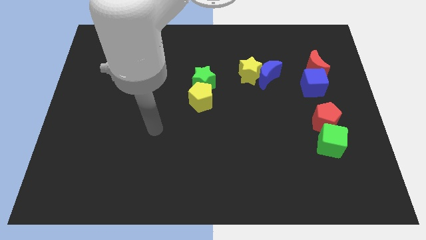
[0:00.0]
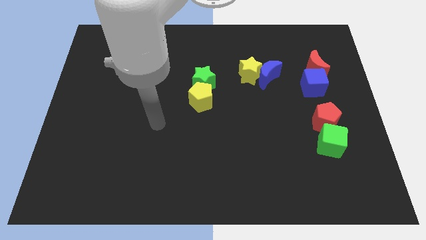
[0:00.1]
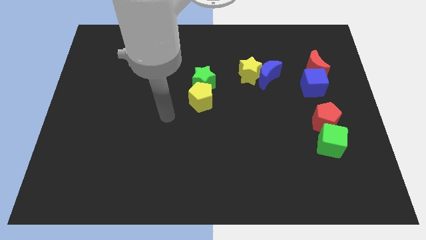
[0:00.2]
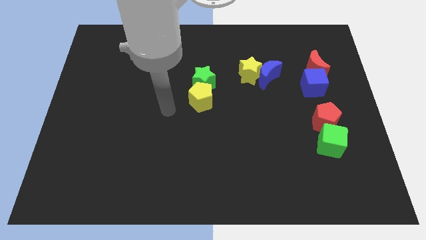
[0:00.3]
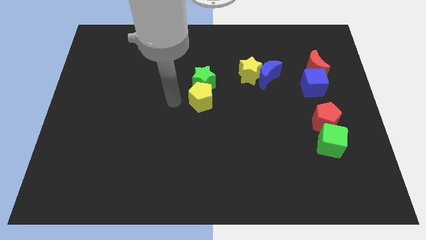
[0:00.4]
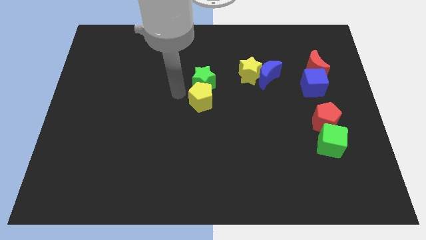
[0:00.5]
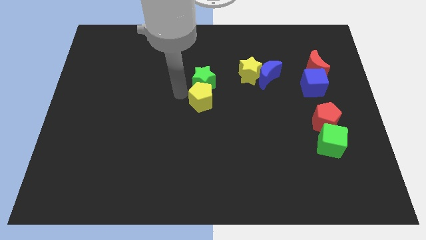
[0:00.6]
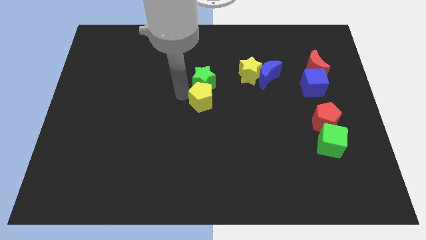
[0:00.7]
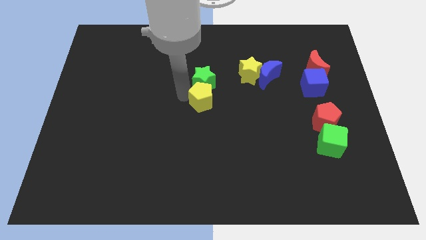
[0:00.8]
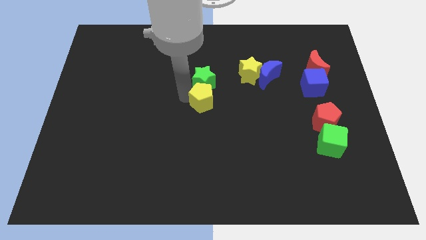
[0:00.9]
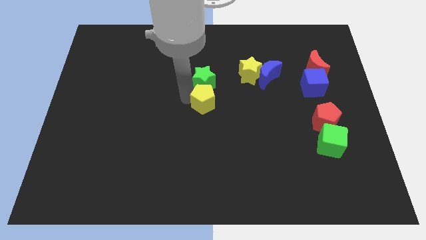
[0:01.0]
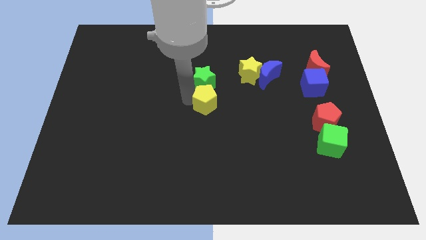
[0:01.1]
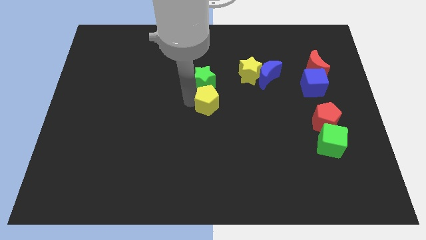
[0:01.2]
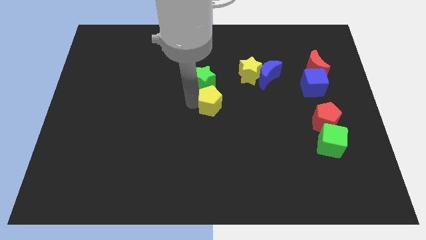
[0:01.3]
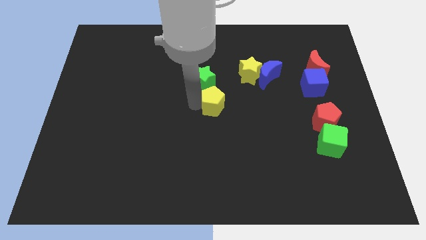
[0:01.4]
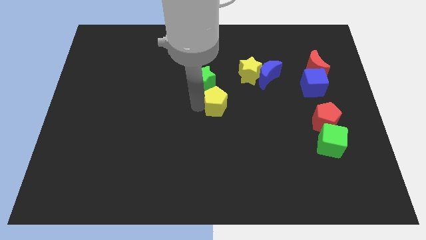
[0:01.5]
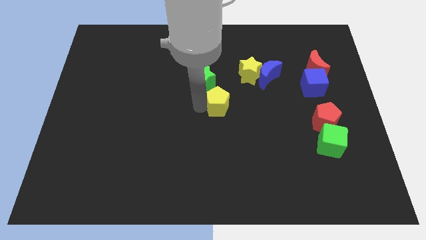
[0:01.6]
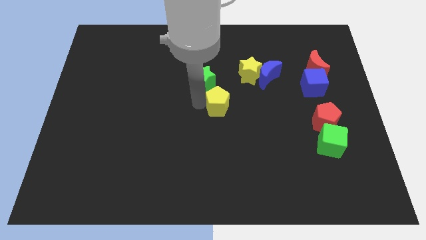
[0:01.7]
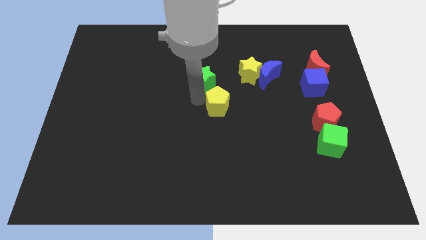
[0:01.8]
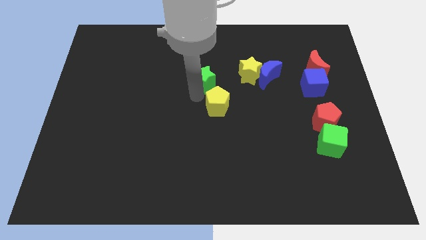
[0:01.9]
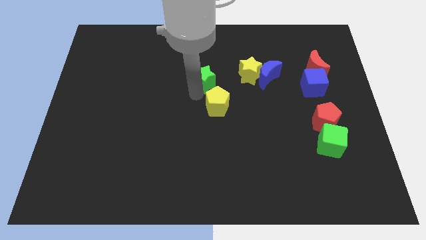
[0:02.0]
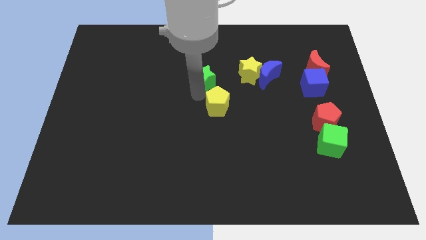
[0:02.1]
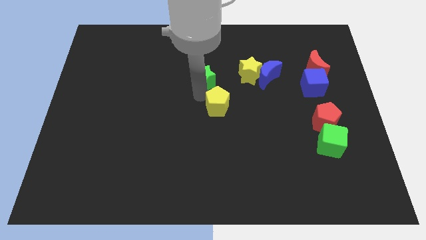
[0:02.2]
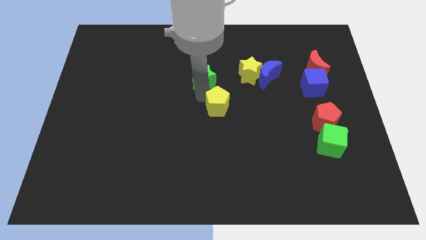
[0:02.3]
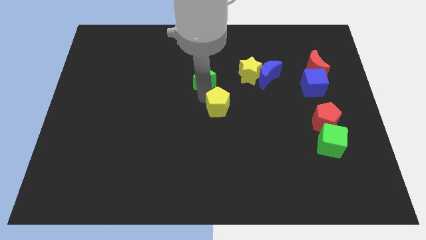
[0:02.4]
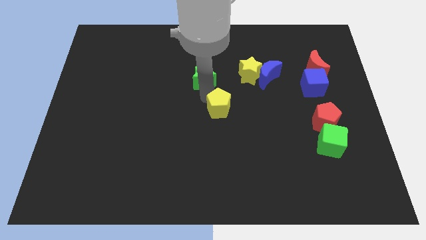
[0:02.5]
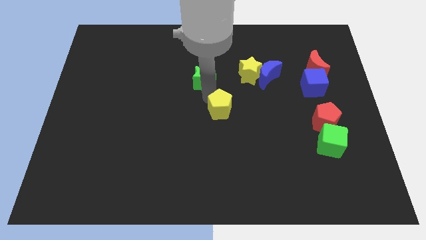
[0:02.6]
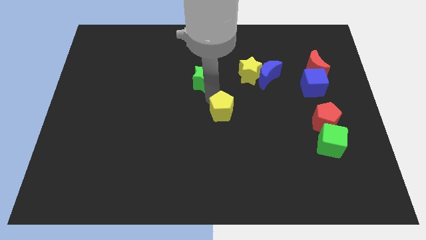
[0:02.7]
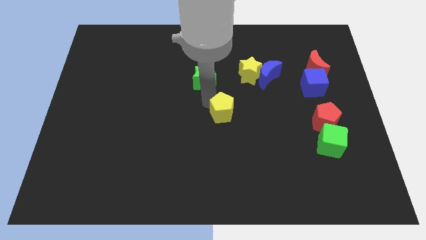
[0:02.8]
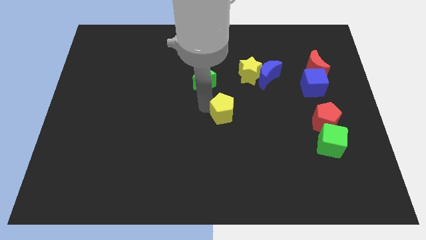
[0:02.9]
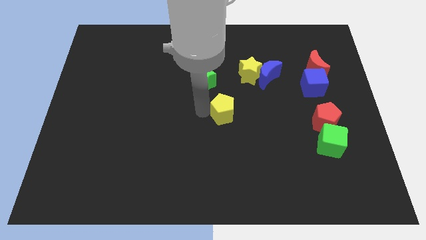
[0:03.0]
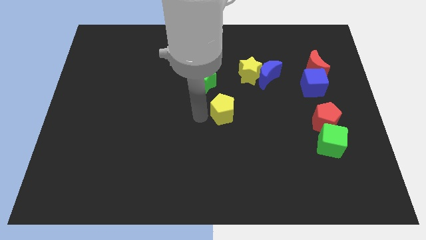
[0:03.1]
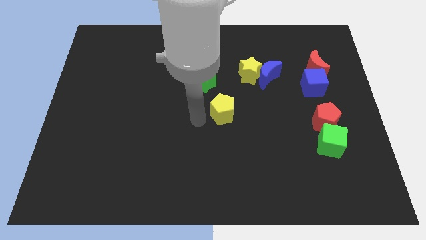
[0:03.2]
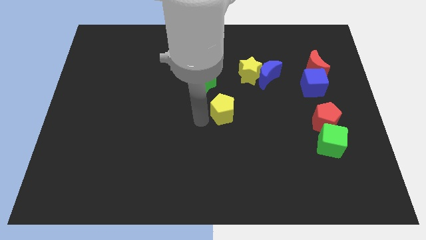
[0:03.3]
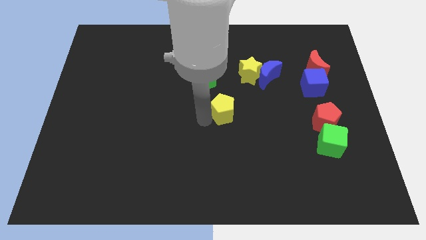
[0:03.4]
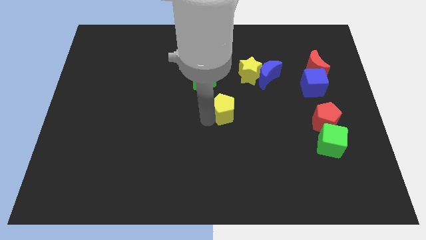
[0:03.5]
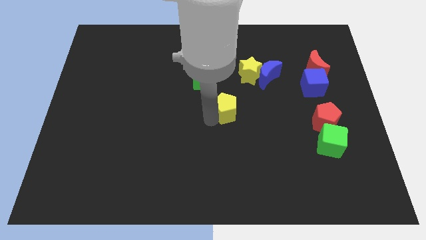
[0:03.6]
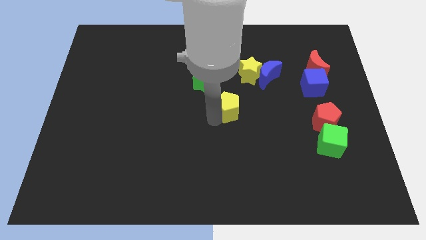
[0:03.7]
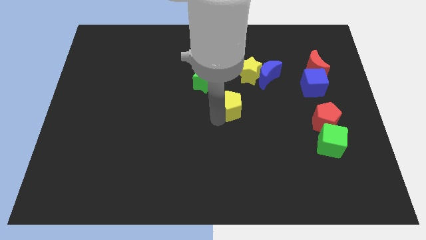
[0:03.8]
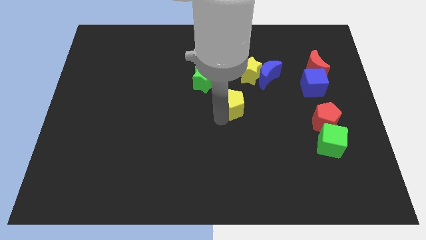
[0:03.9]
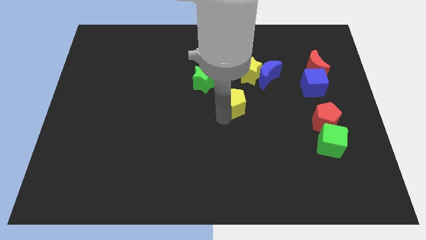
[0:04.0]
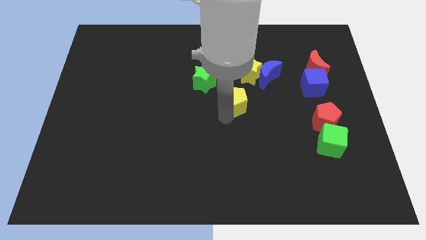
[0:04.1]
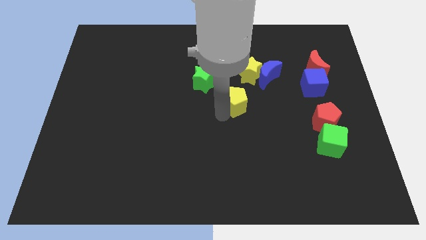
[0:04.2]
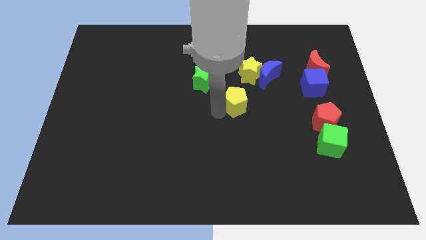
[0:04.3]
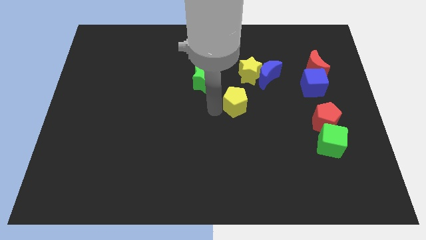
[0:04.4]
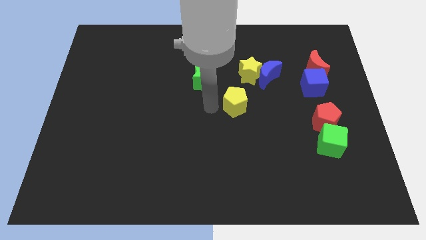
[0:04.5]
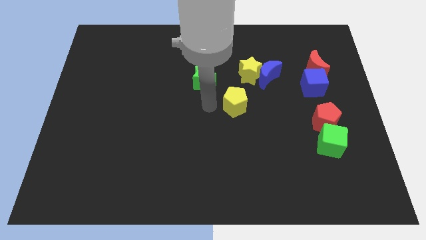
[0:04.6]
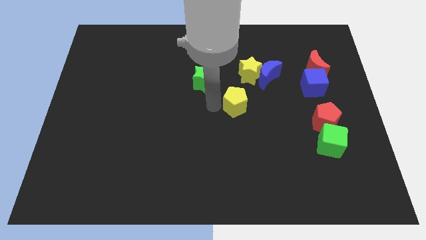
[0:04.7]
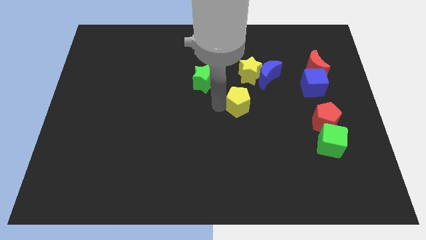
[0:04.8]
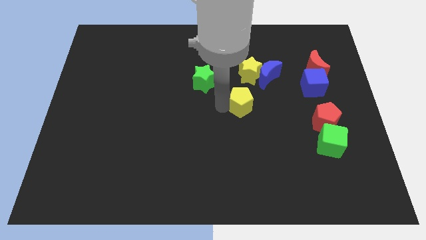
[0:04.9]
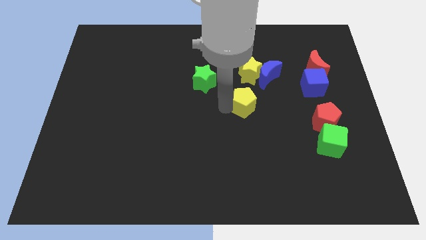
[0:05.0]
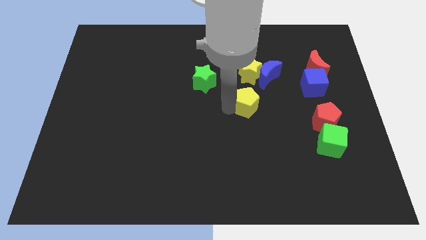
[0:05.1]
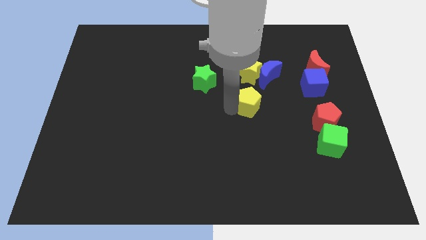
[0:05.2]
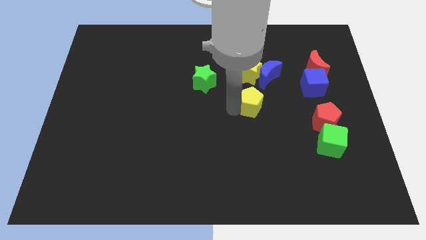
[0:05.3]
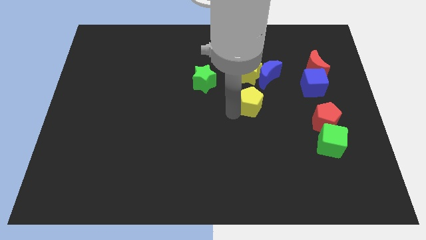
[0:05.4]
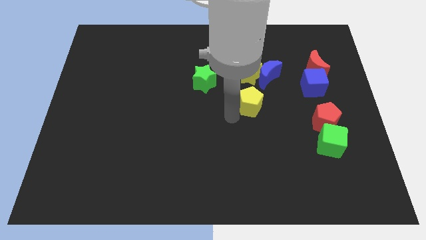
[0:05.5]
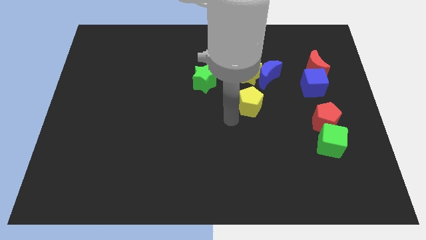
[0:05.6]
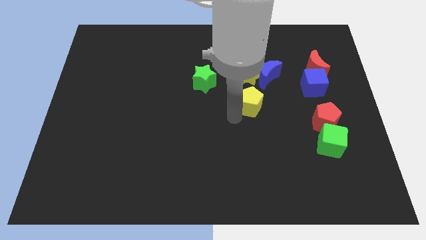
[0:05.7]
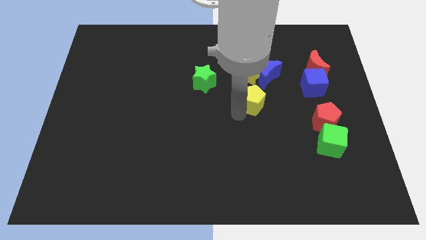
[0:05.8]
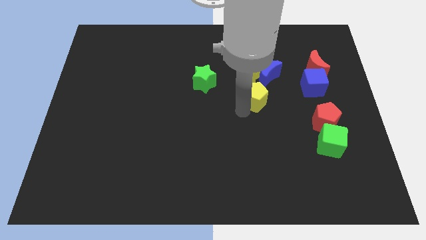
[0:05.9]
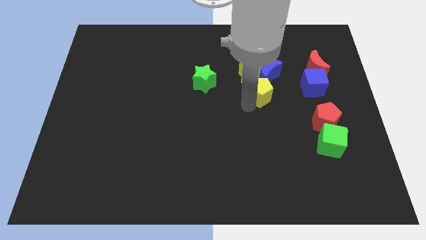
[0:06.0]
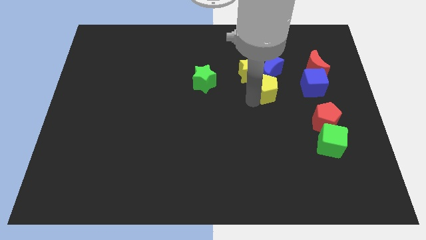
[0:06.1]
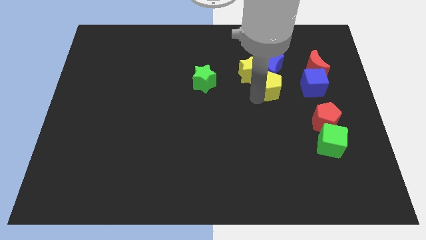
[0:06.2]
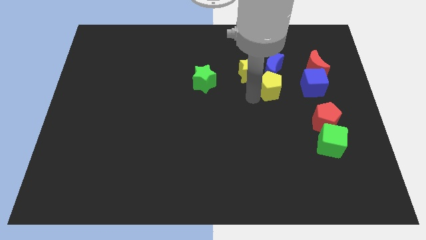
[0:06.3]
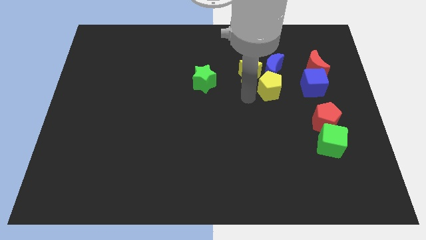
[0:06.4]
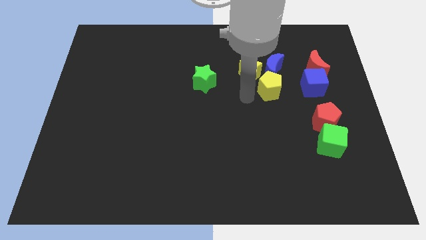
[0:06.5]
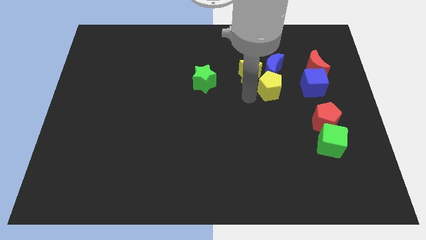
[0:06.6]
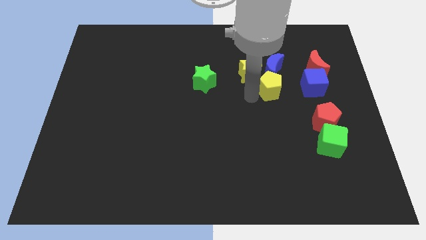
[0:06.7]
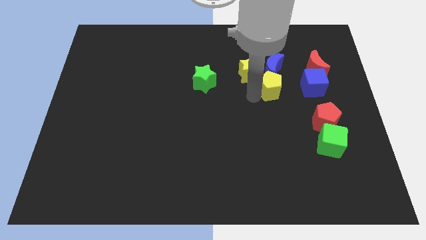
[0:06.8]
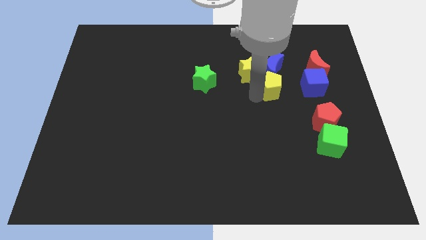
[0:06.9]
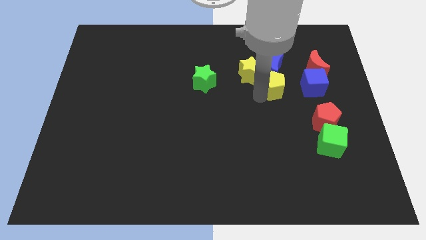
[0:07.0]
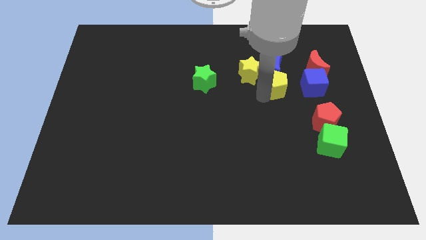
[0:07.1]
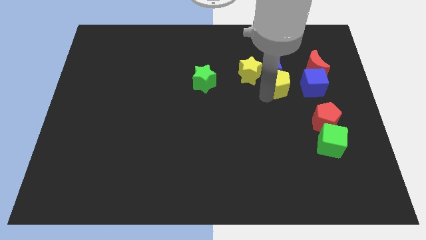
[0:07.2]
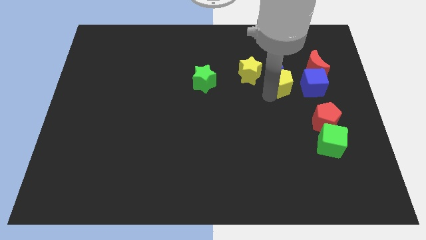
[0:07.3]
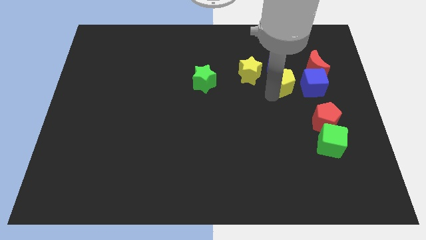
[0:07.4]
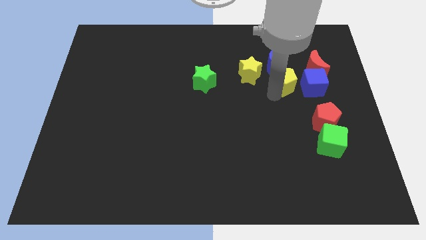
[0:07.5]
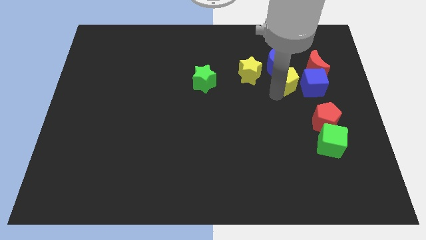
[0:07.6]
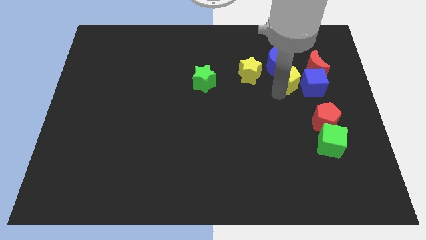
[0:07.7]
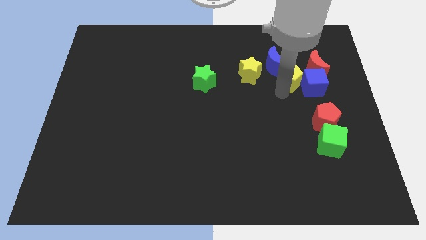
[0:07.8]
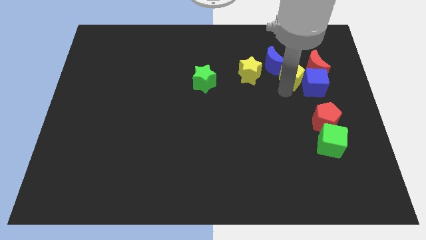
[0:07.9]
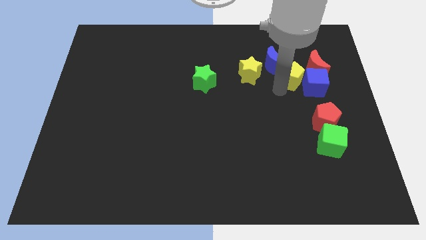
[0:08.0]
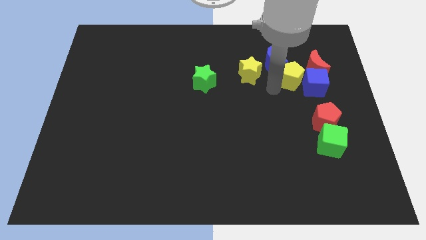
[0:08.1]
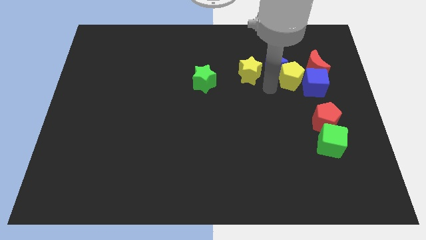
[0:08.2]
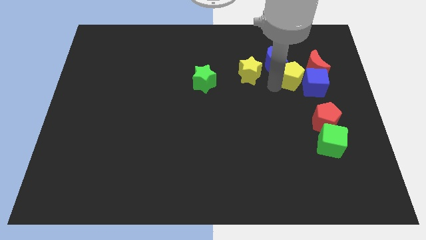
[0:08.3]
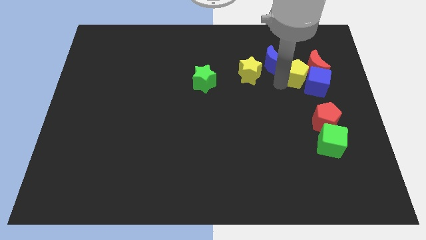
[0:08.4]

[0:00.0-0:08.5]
slide the yellow pentagon next to the red moon
